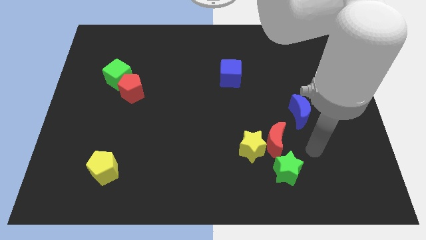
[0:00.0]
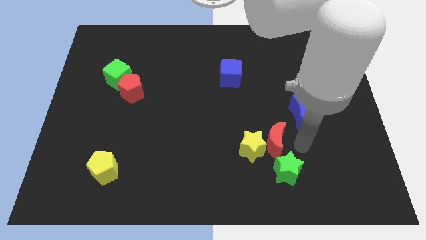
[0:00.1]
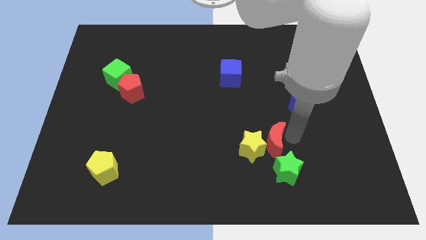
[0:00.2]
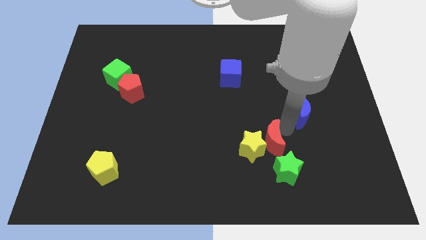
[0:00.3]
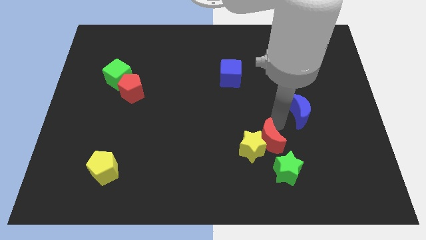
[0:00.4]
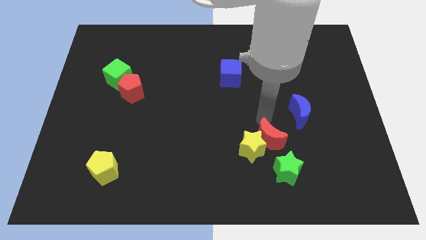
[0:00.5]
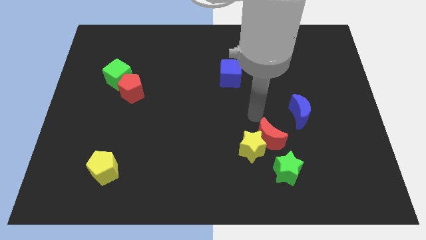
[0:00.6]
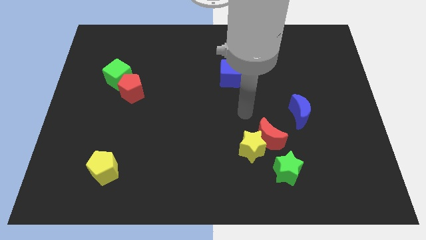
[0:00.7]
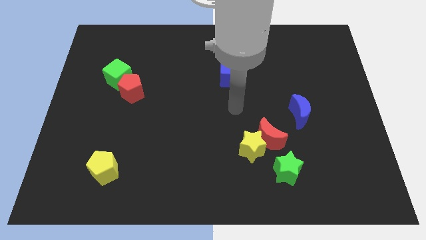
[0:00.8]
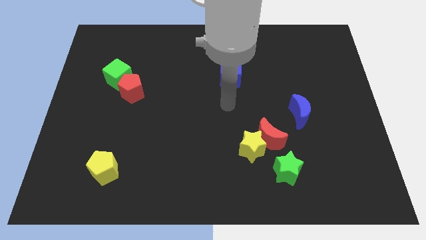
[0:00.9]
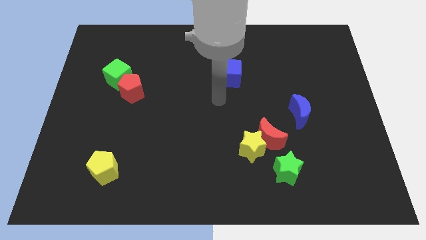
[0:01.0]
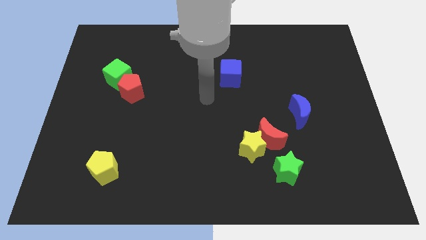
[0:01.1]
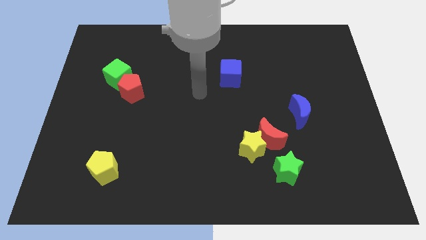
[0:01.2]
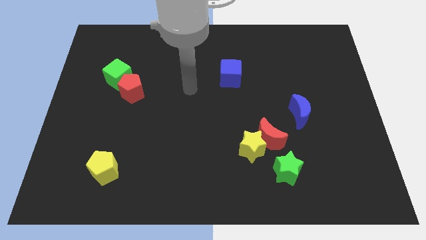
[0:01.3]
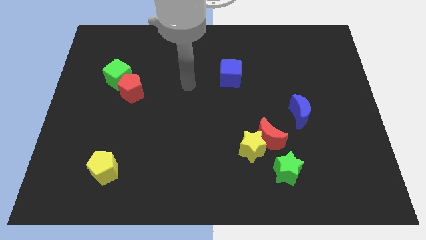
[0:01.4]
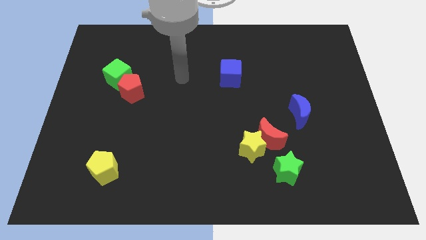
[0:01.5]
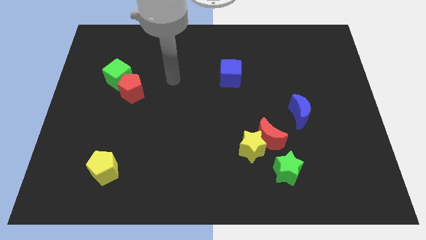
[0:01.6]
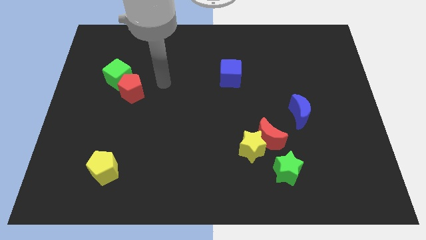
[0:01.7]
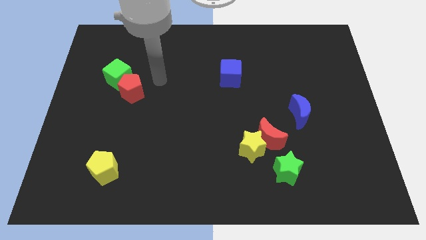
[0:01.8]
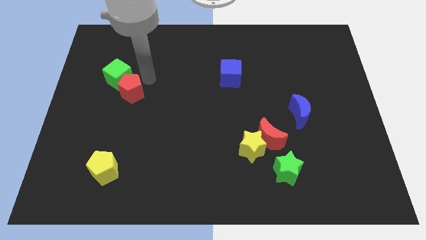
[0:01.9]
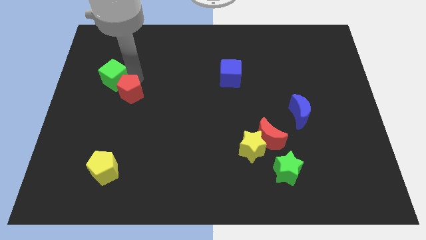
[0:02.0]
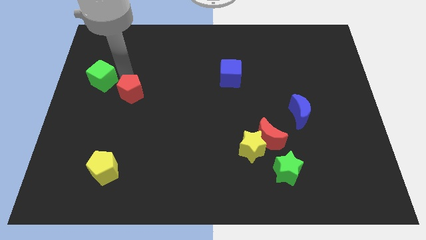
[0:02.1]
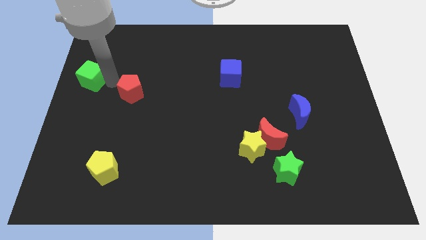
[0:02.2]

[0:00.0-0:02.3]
move the red pentagon away from the green cube

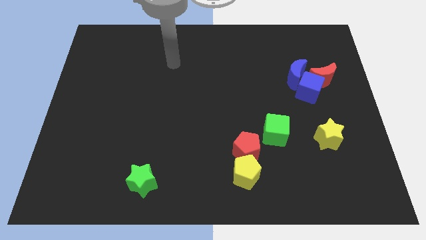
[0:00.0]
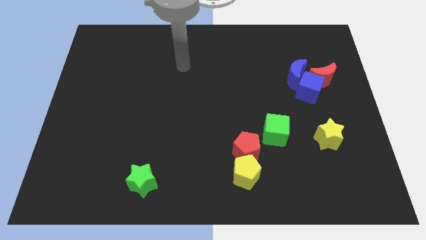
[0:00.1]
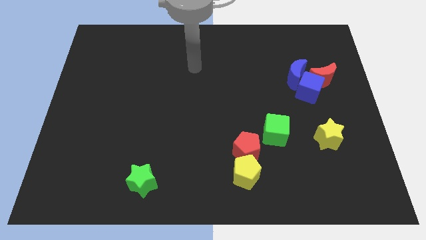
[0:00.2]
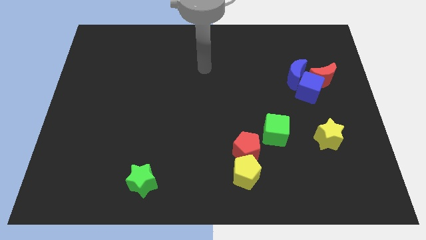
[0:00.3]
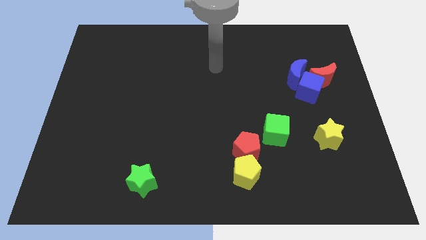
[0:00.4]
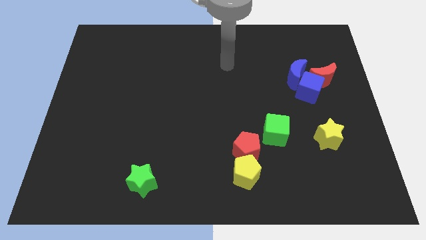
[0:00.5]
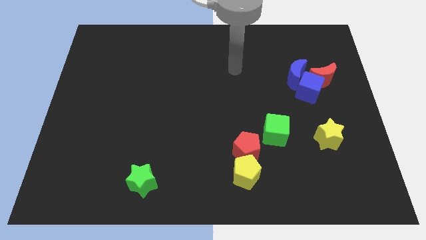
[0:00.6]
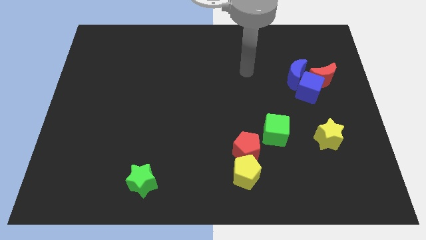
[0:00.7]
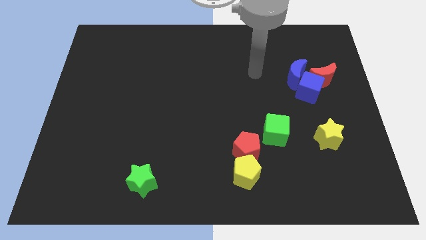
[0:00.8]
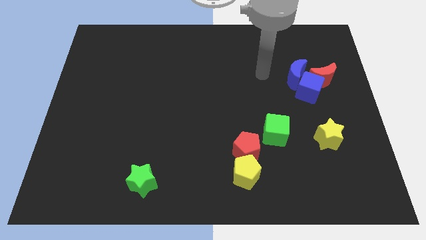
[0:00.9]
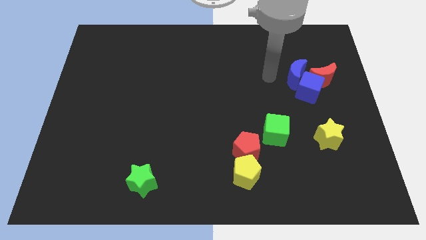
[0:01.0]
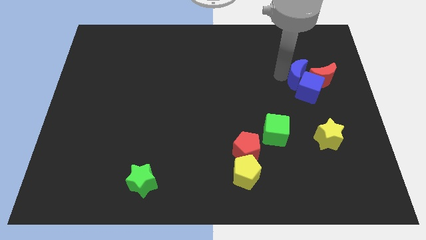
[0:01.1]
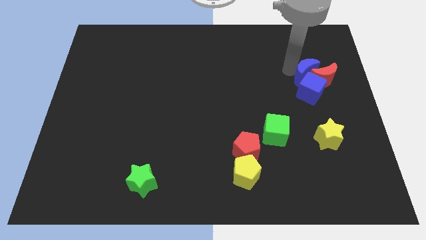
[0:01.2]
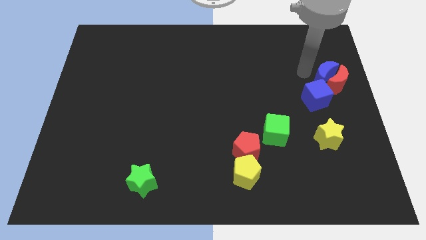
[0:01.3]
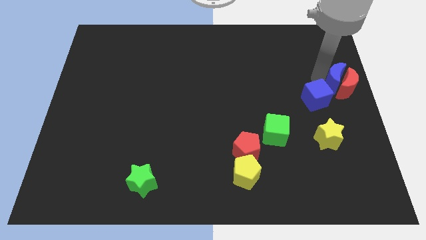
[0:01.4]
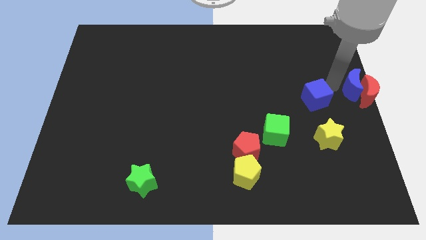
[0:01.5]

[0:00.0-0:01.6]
move the blue cube away from the red moon and blue moon

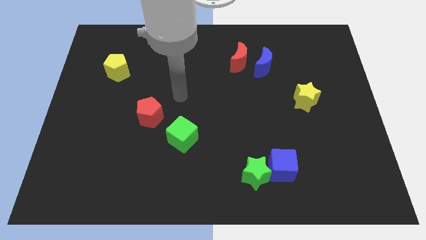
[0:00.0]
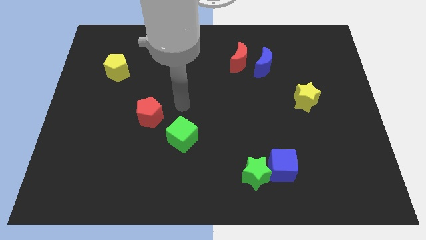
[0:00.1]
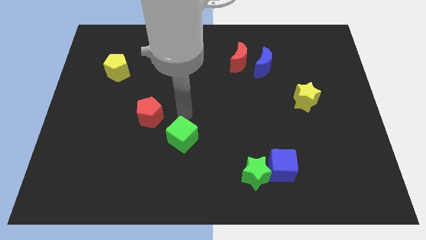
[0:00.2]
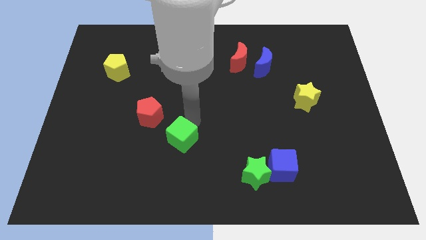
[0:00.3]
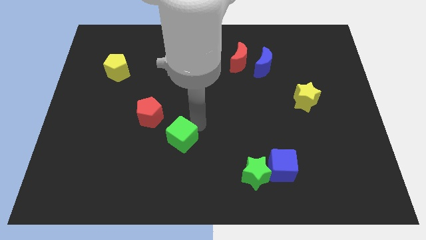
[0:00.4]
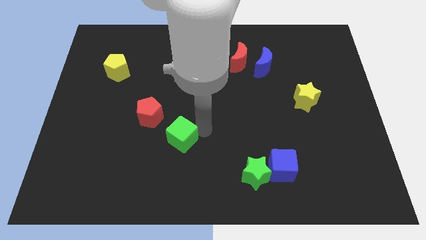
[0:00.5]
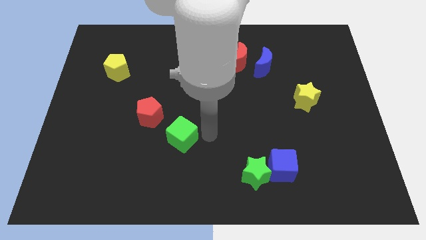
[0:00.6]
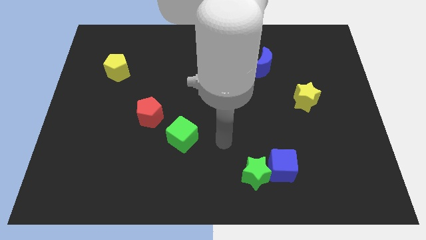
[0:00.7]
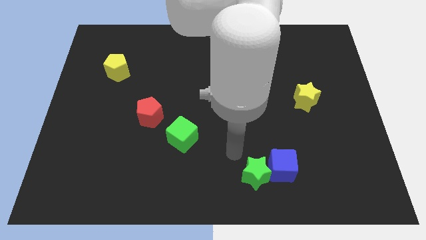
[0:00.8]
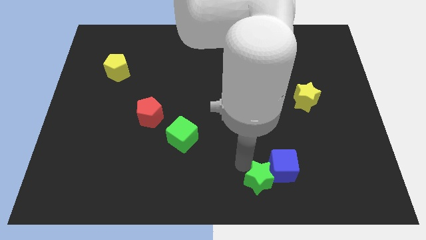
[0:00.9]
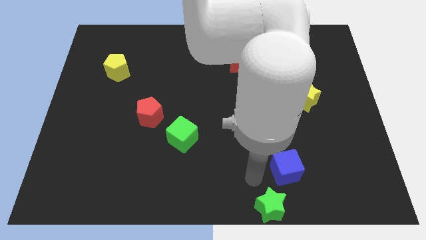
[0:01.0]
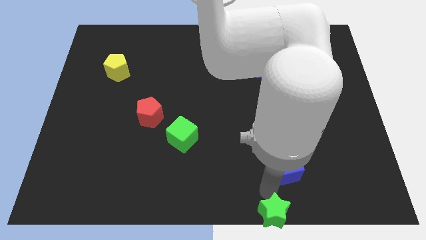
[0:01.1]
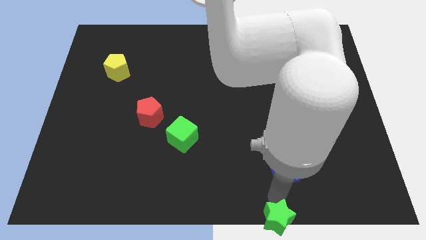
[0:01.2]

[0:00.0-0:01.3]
separate the blue cube from the green star

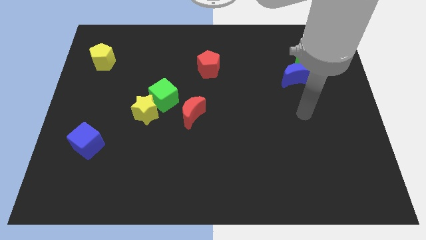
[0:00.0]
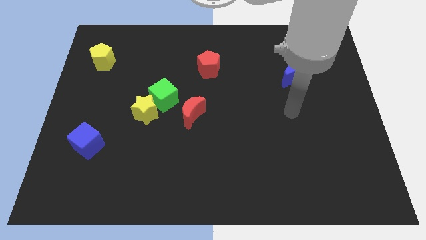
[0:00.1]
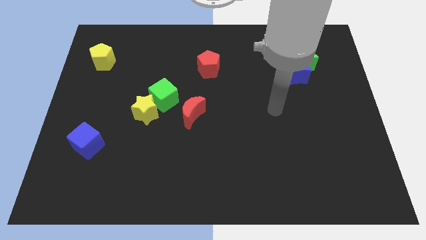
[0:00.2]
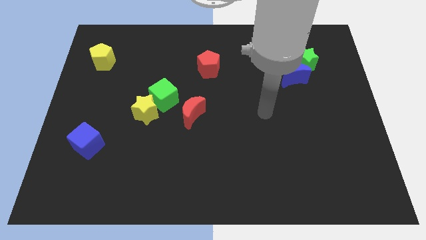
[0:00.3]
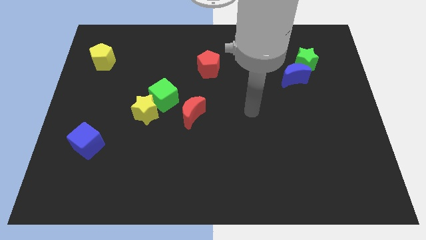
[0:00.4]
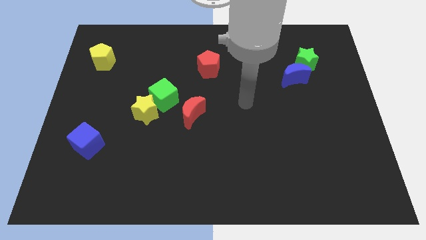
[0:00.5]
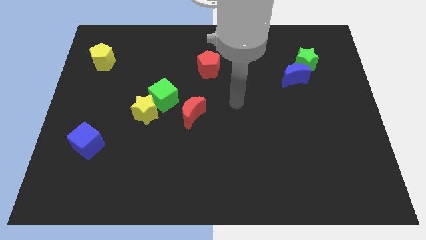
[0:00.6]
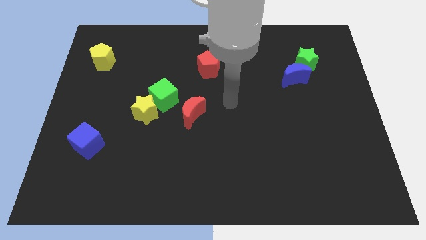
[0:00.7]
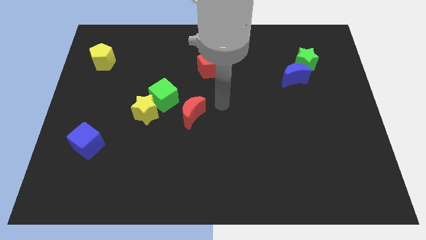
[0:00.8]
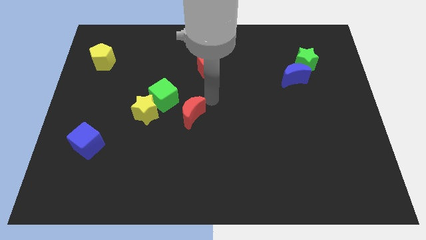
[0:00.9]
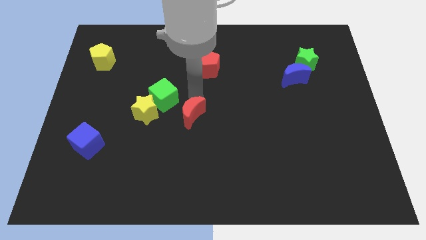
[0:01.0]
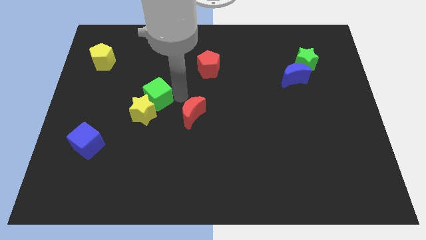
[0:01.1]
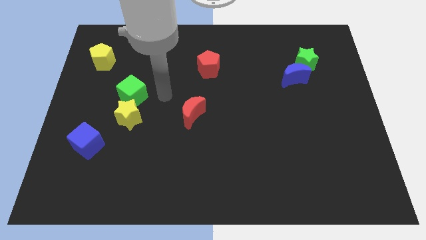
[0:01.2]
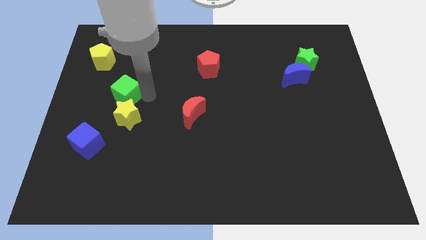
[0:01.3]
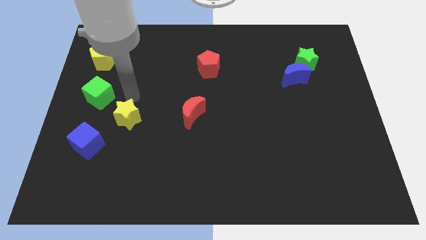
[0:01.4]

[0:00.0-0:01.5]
separate the yellow star from the green cube

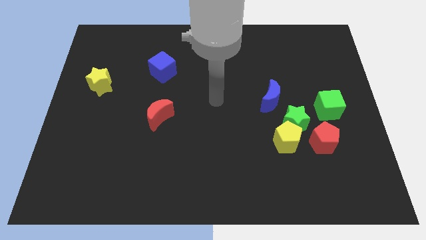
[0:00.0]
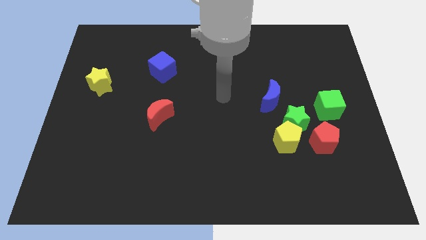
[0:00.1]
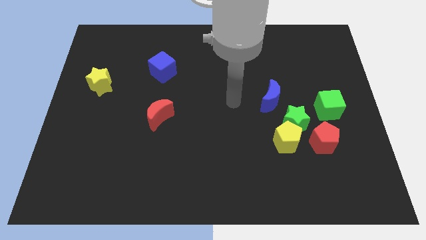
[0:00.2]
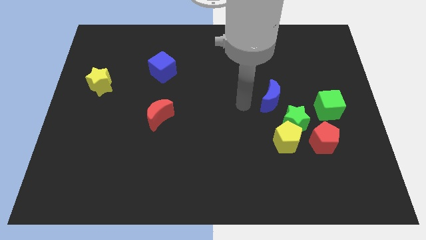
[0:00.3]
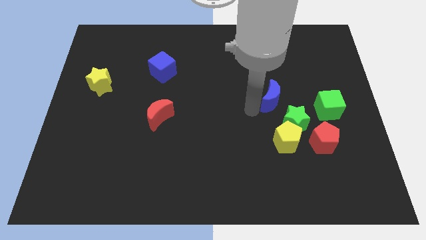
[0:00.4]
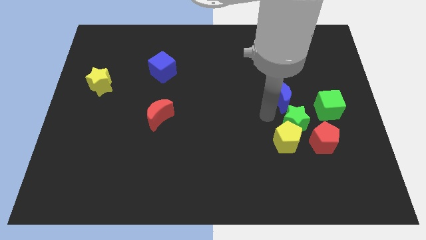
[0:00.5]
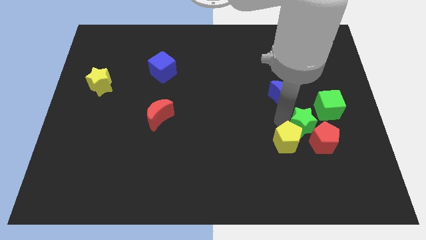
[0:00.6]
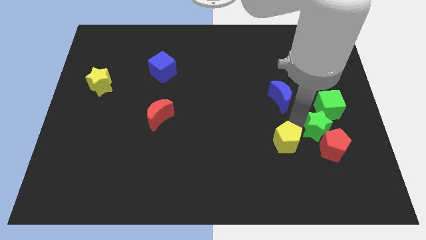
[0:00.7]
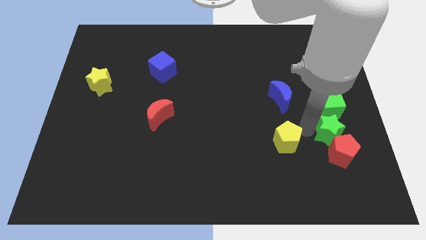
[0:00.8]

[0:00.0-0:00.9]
move the yellow pentagon away from the green star and red pentagon

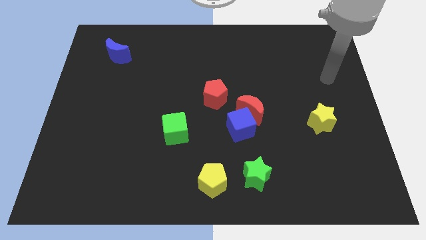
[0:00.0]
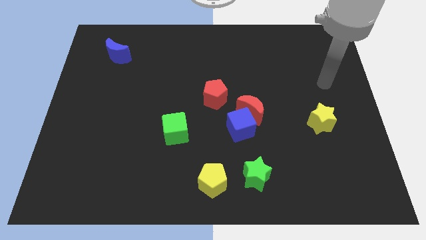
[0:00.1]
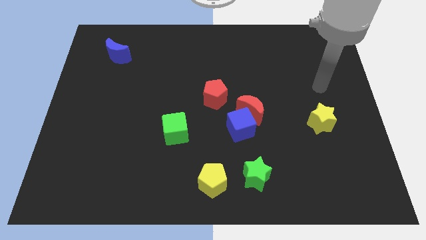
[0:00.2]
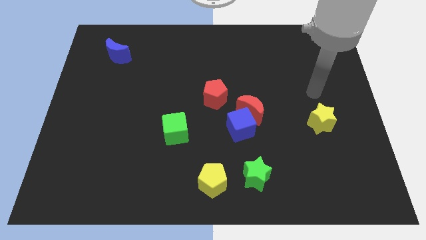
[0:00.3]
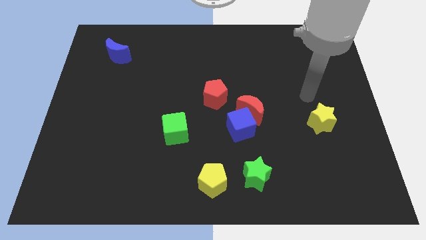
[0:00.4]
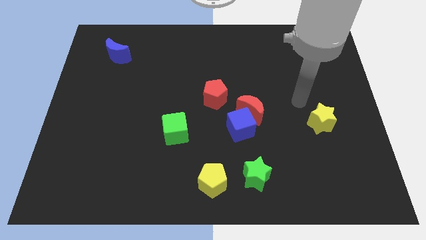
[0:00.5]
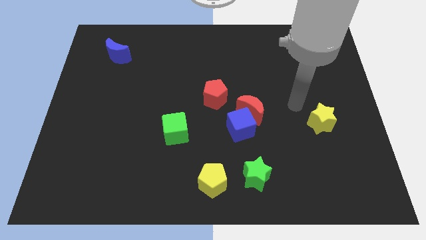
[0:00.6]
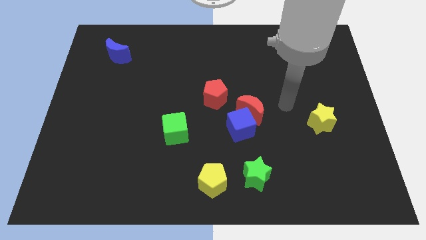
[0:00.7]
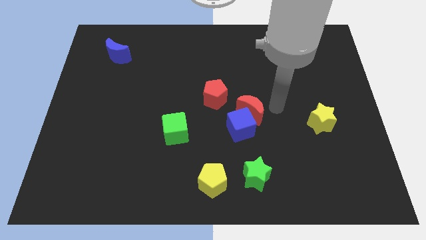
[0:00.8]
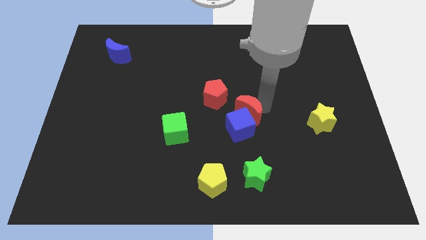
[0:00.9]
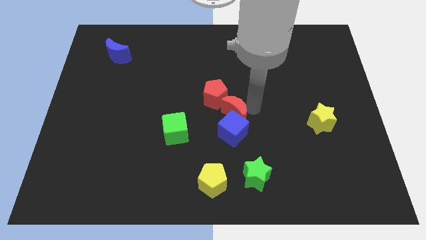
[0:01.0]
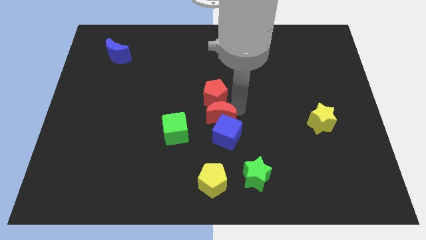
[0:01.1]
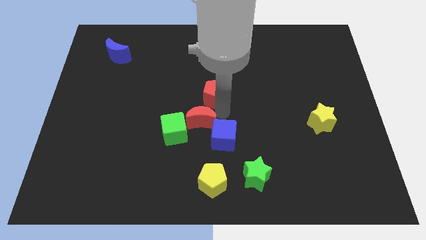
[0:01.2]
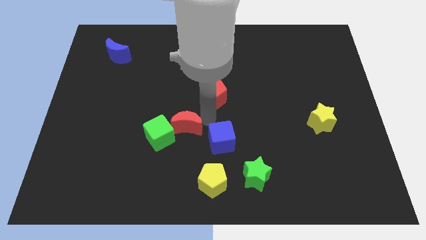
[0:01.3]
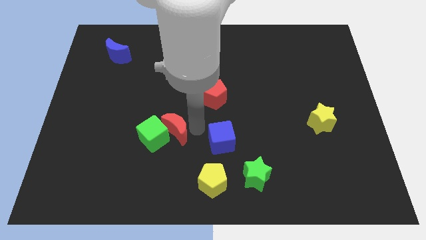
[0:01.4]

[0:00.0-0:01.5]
separate the blue cube from the red moon

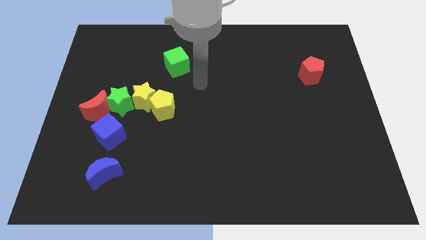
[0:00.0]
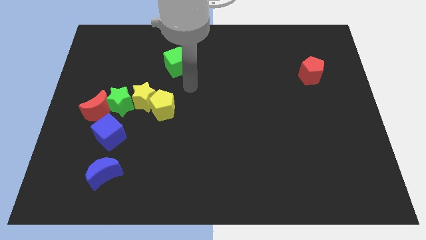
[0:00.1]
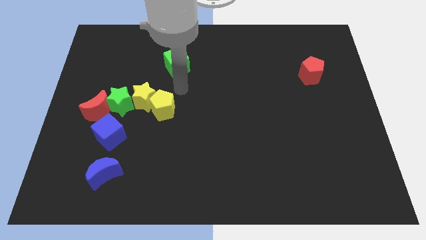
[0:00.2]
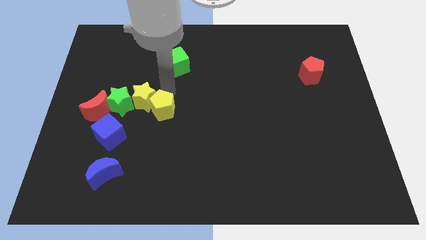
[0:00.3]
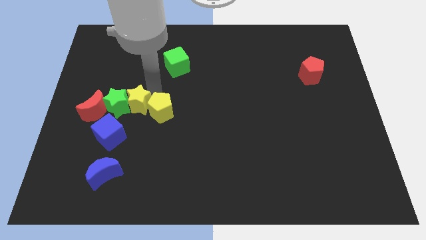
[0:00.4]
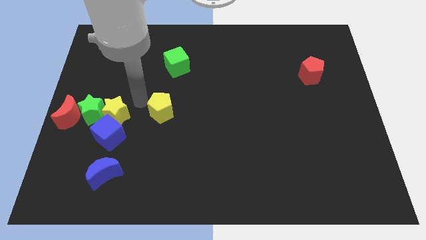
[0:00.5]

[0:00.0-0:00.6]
pull the yellow pentagon apart from the yellow star
